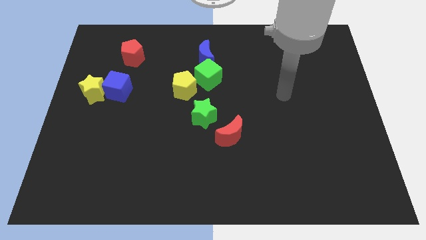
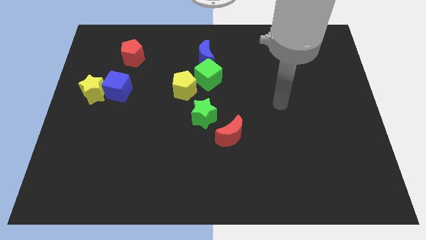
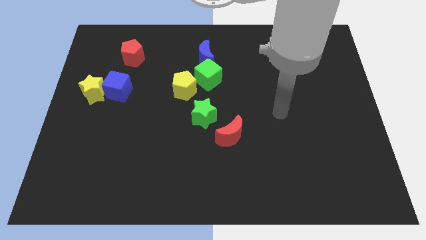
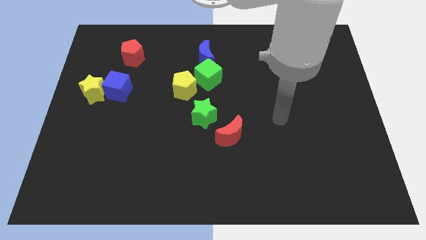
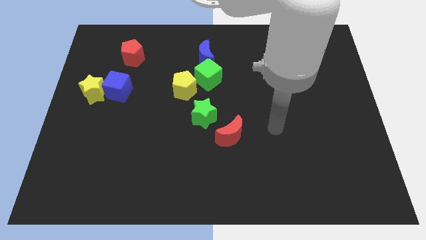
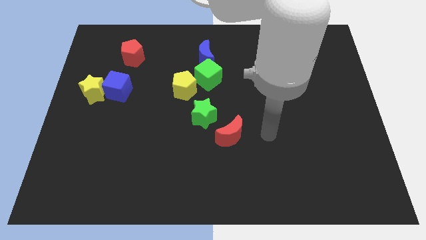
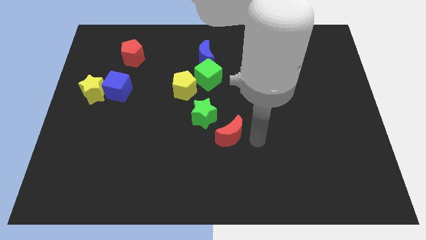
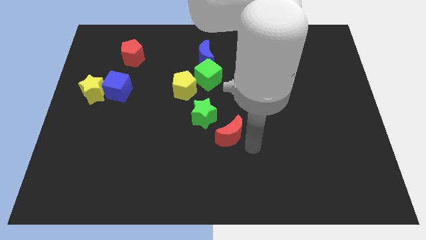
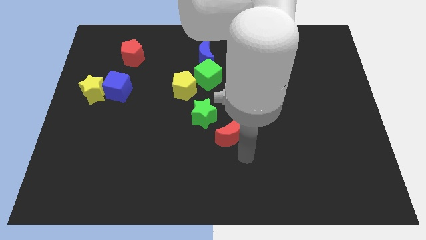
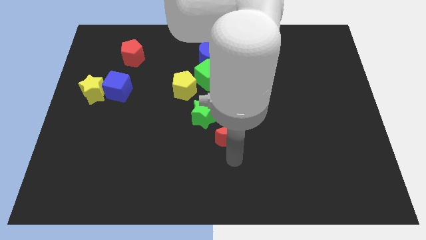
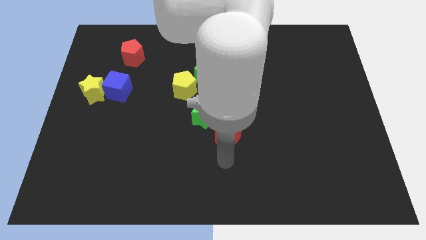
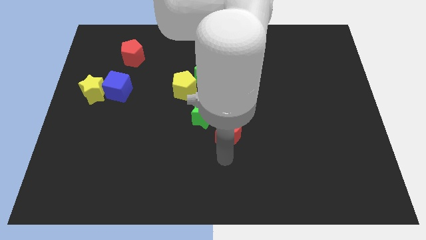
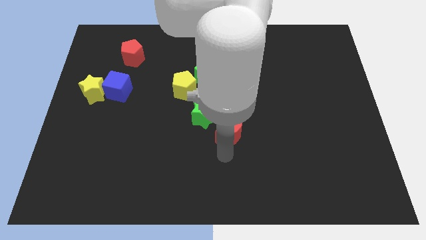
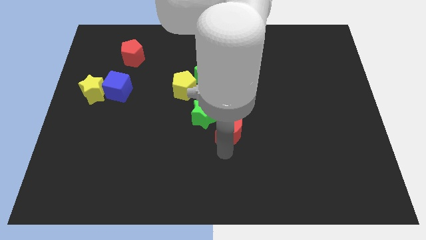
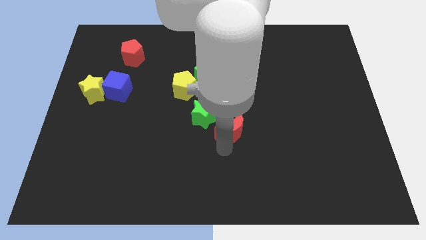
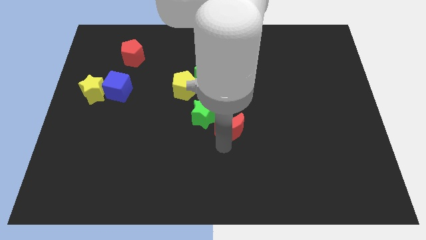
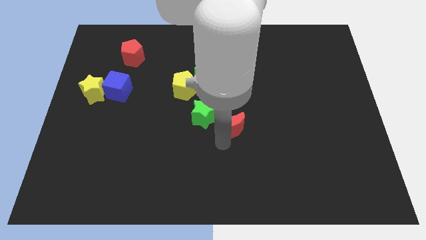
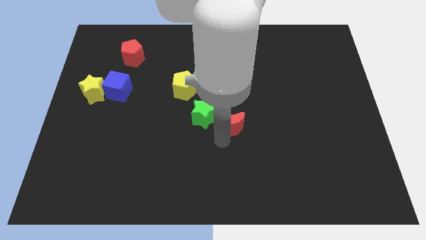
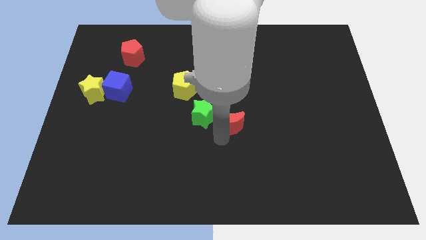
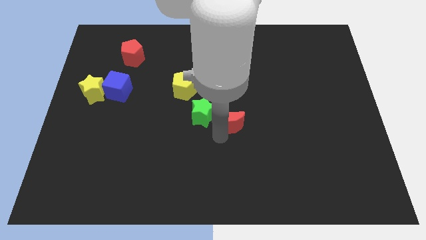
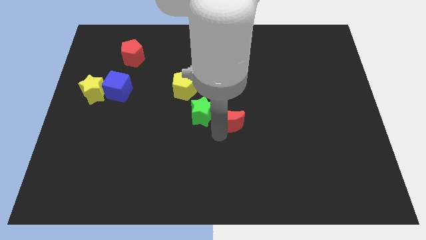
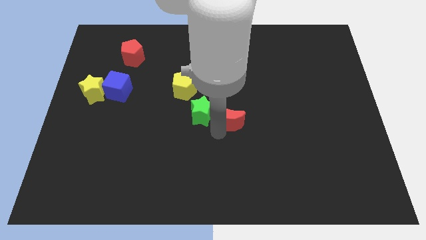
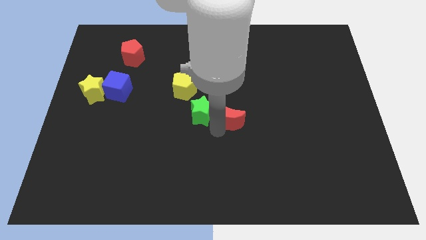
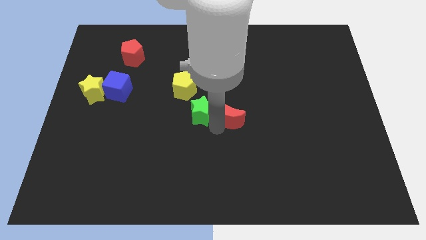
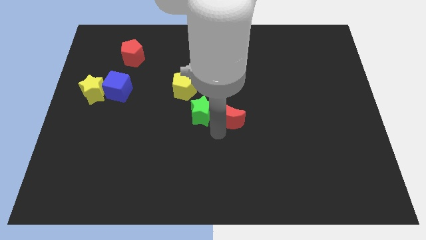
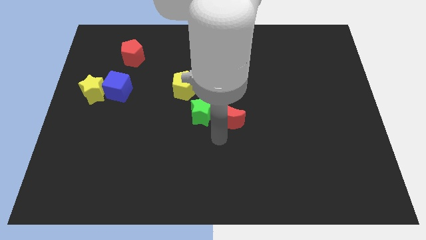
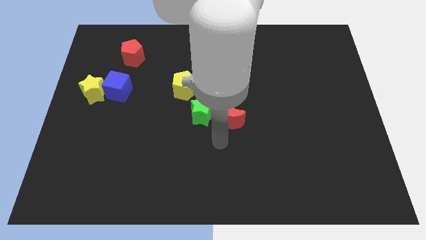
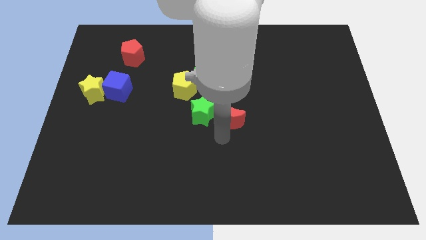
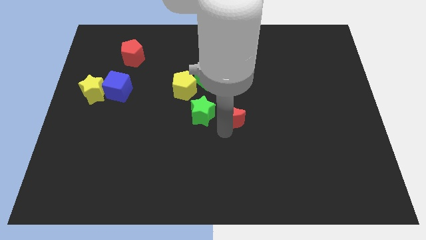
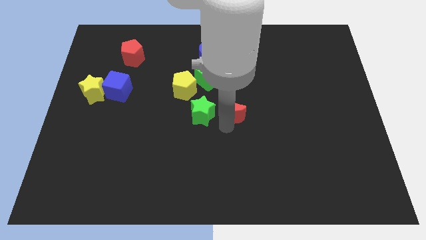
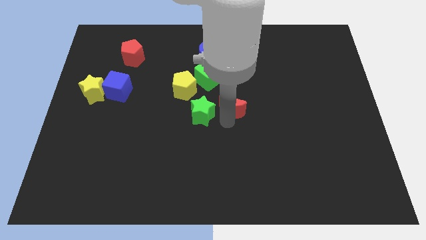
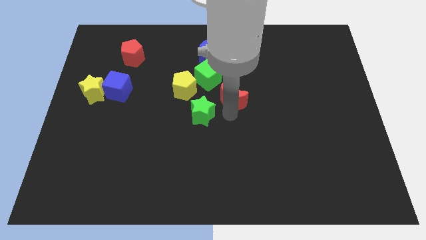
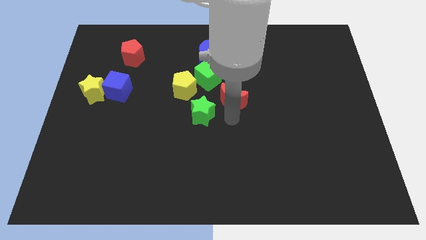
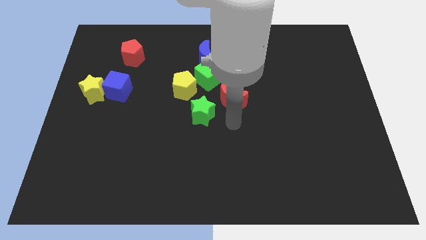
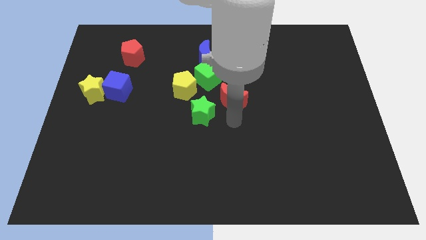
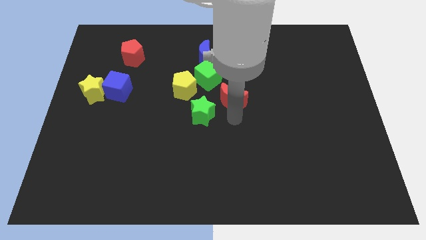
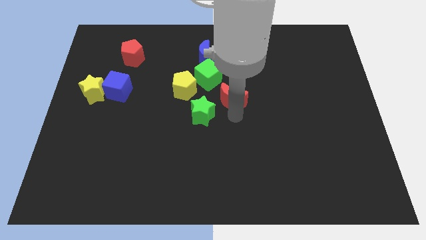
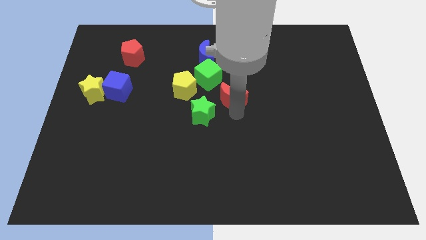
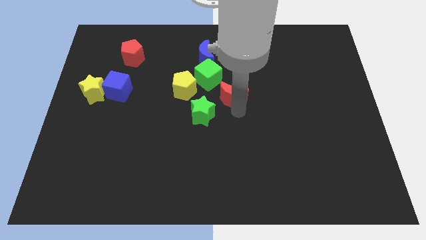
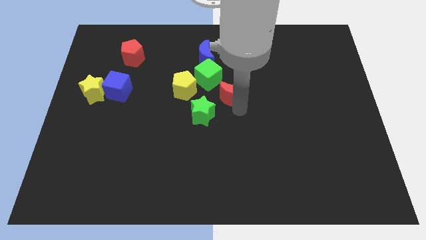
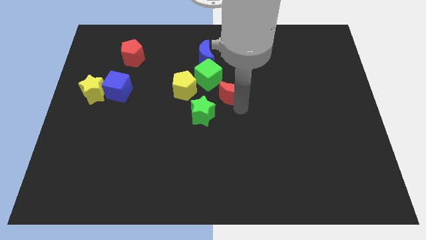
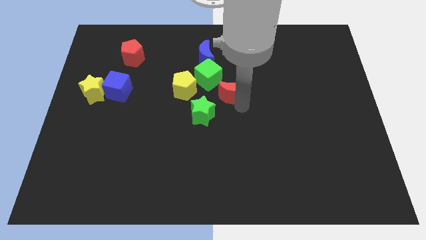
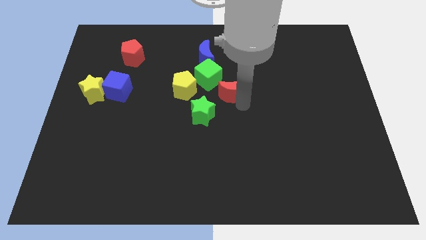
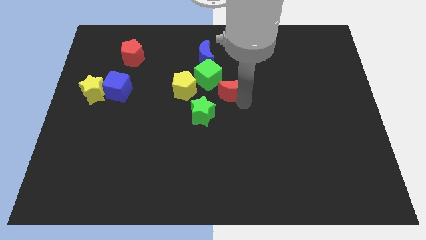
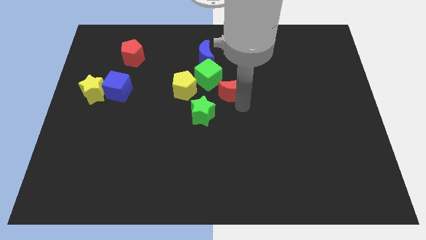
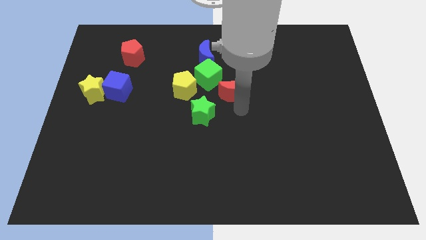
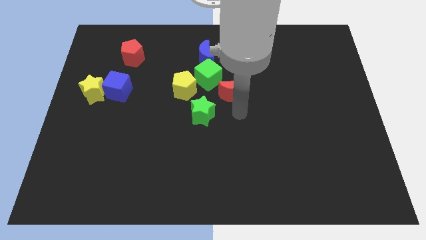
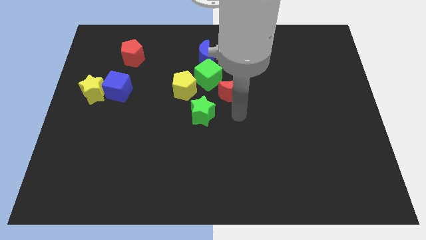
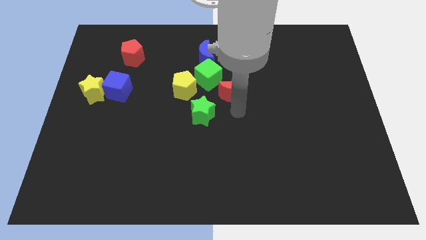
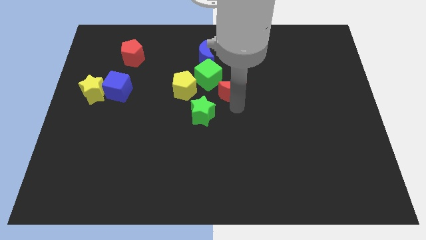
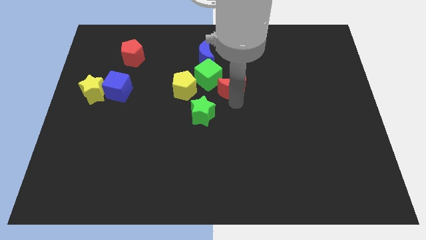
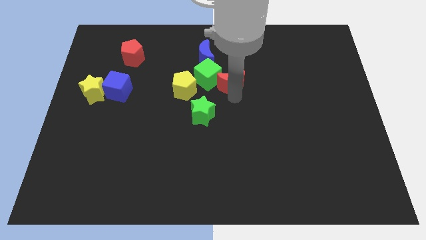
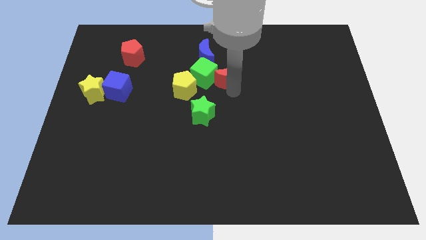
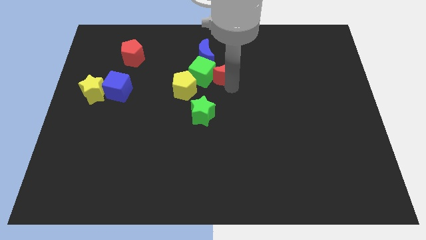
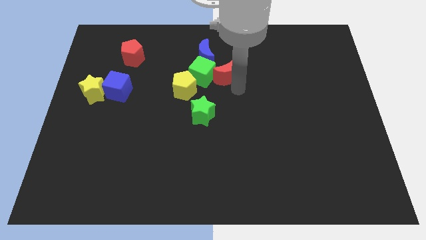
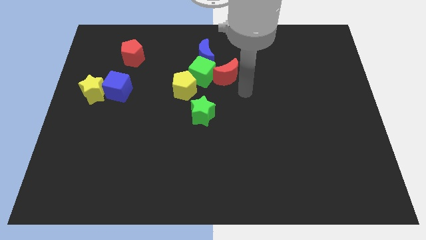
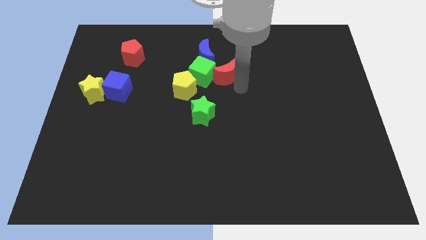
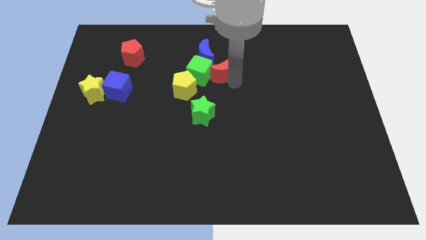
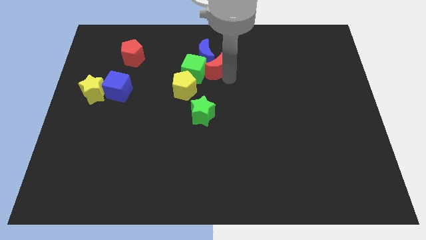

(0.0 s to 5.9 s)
push the red moon close to the blue moon

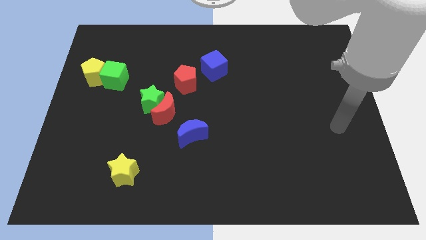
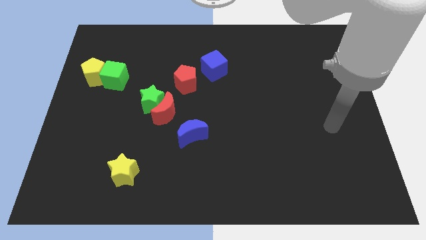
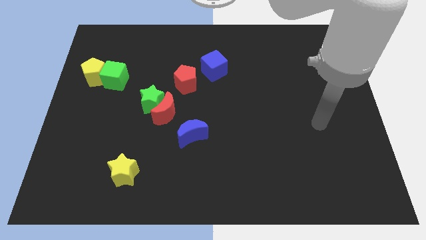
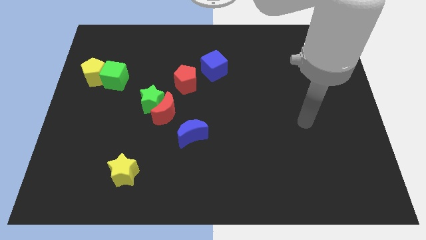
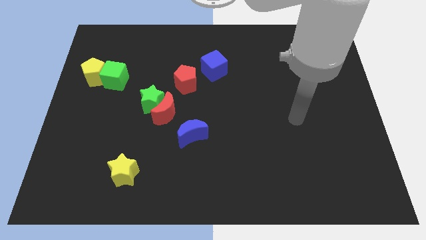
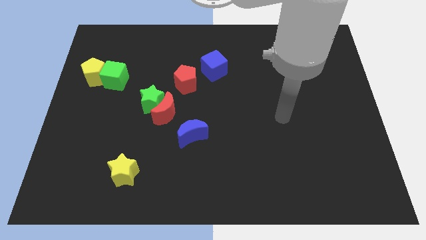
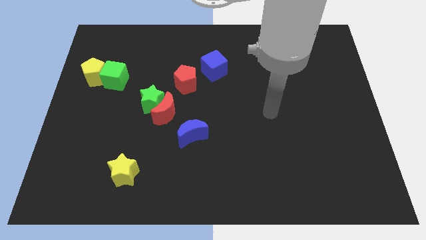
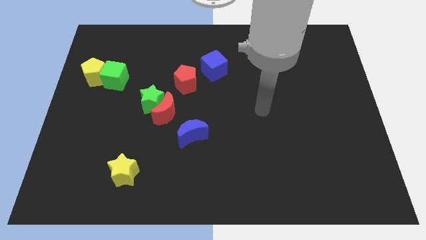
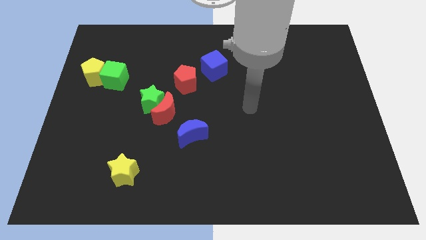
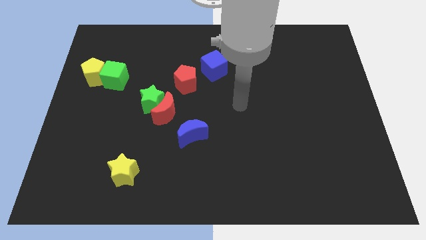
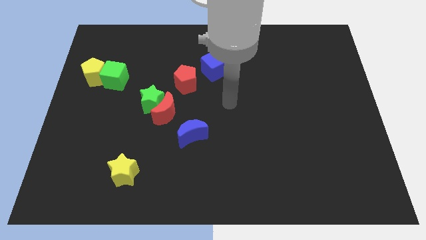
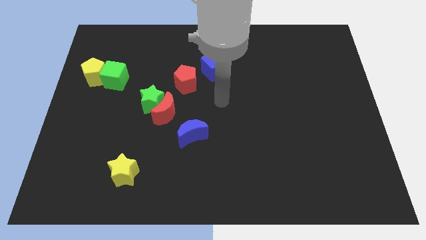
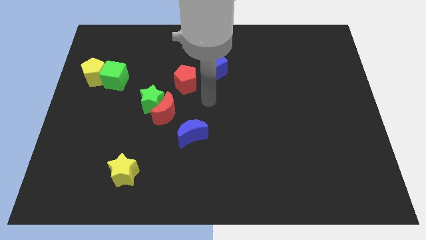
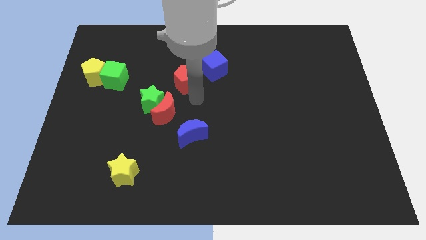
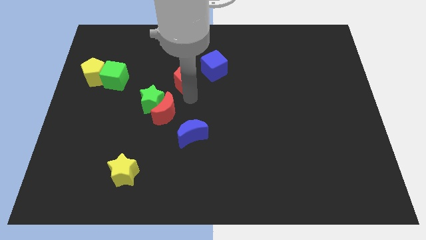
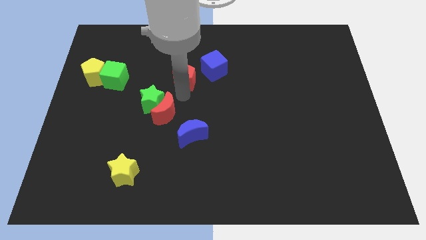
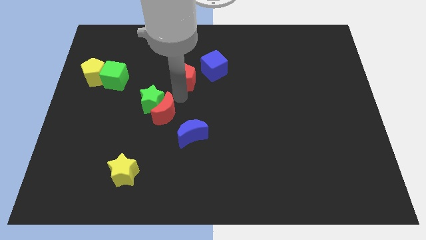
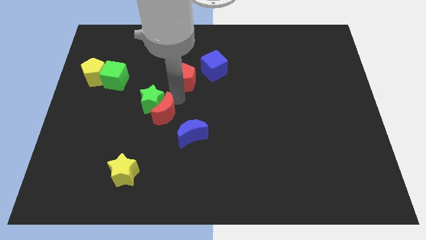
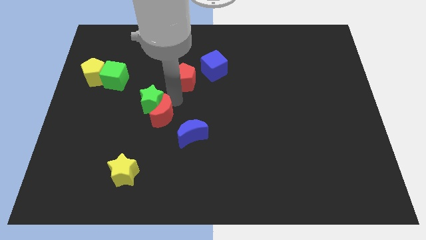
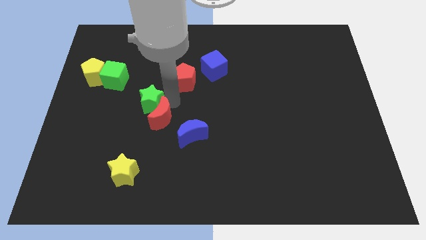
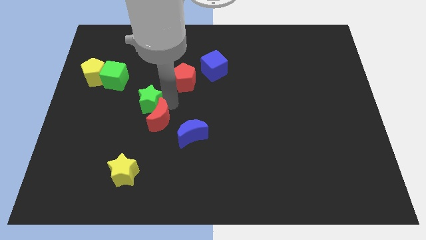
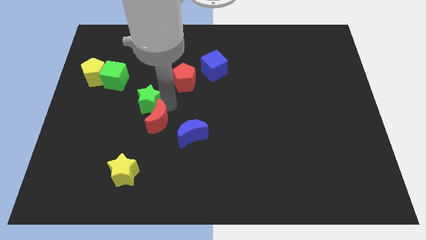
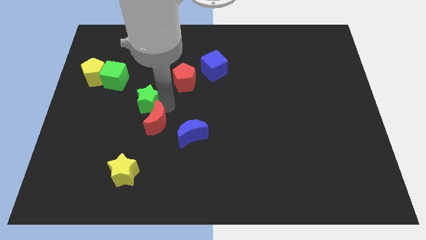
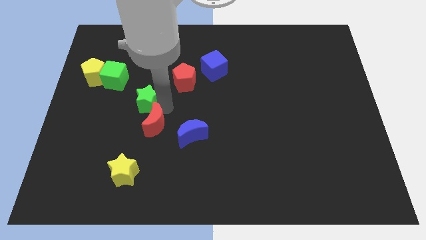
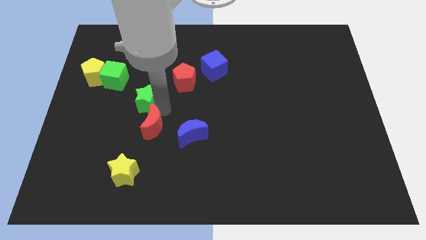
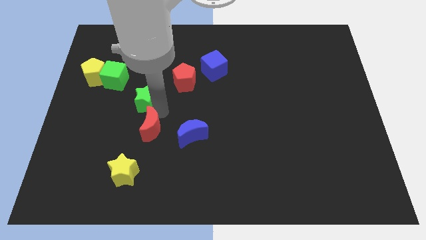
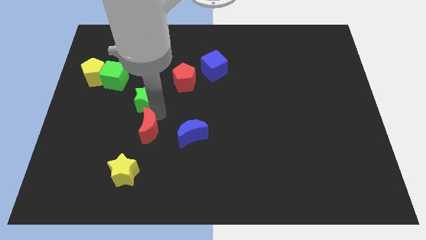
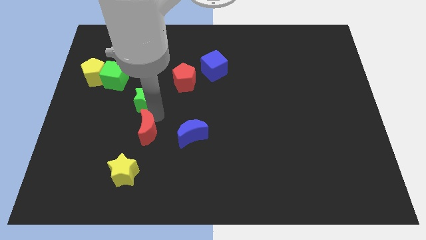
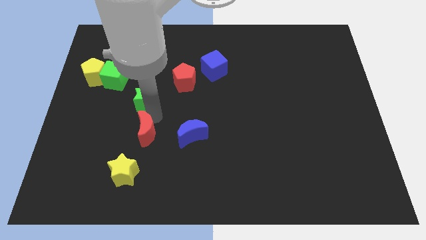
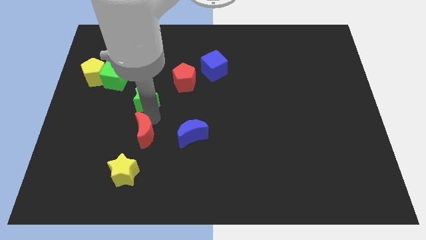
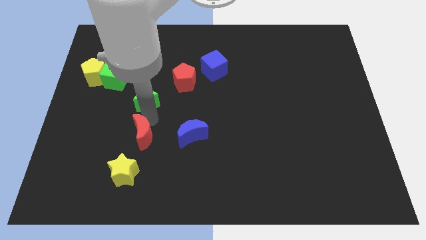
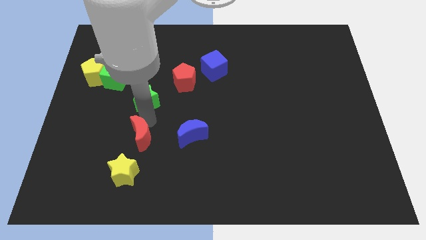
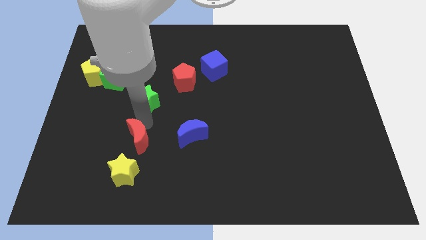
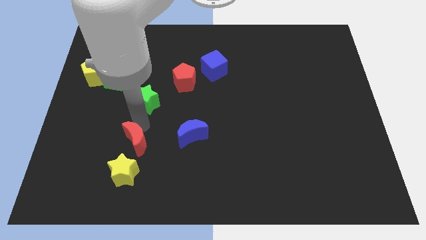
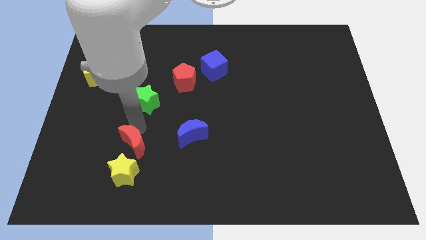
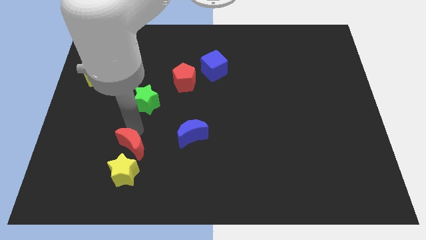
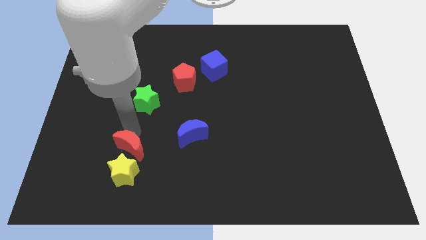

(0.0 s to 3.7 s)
put the red moon close to the yellow star
